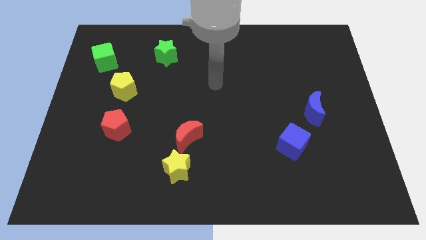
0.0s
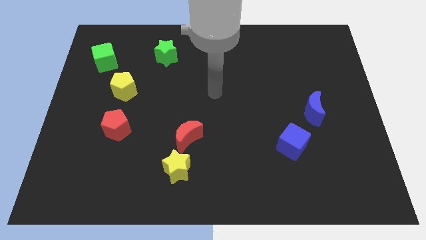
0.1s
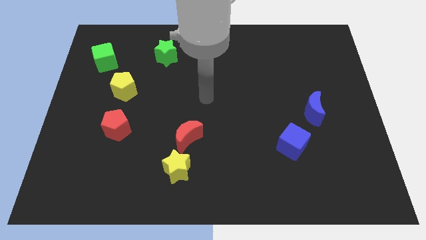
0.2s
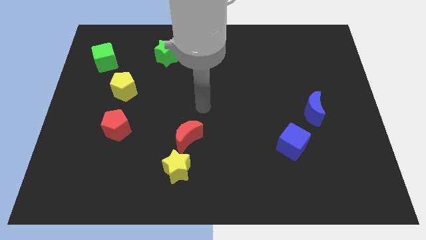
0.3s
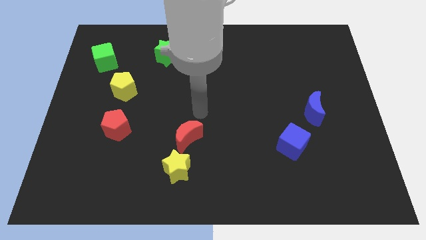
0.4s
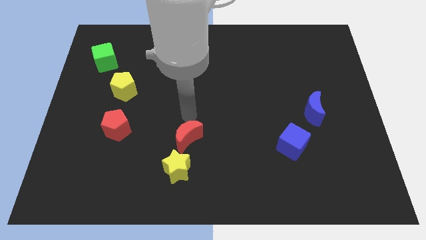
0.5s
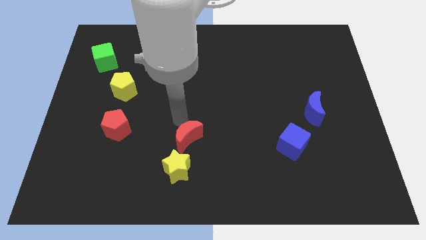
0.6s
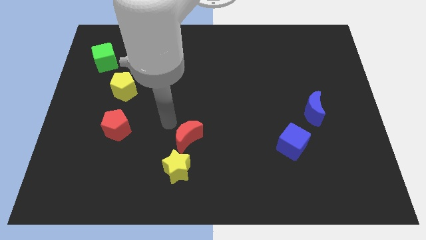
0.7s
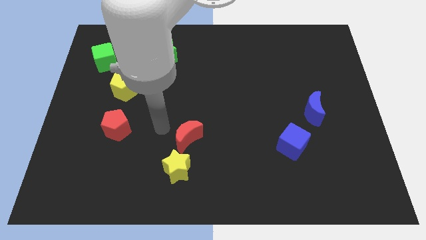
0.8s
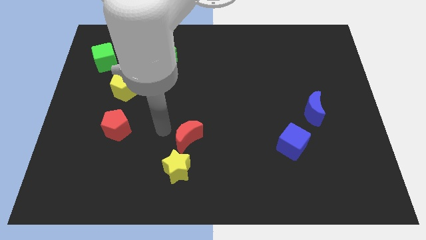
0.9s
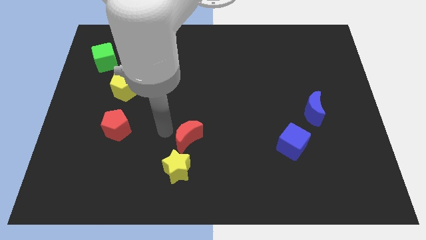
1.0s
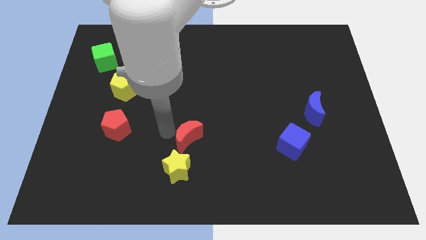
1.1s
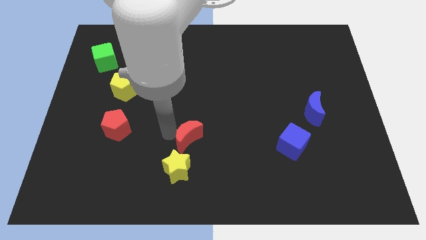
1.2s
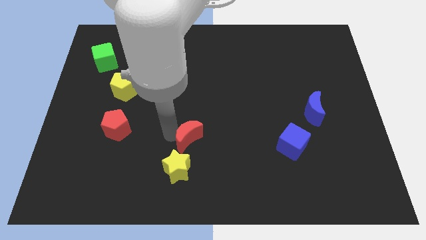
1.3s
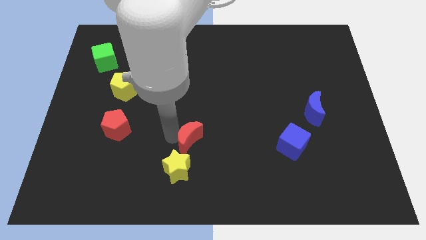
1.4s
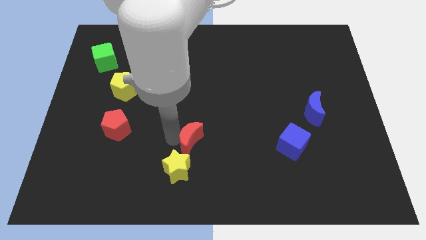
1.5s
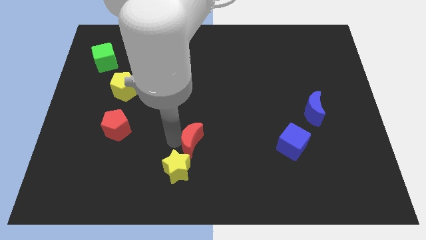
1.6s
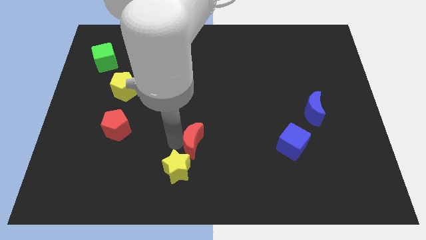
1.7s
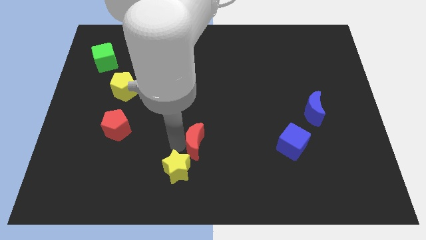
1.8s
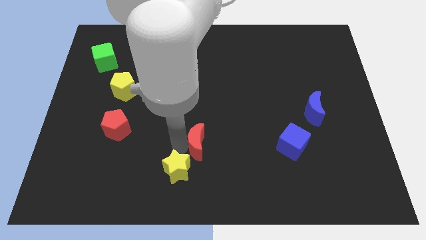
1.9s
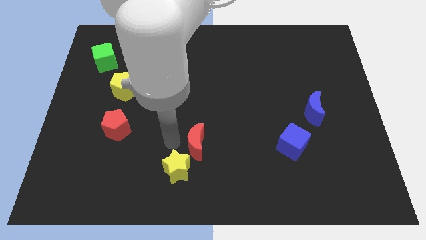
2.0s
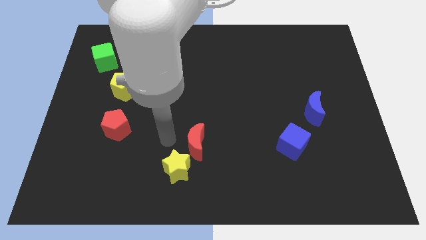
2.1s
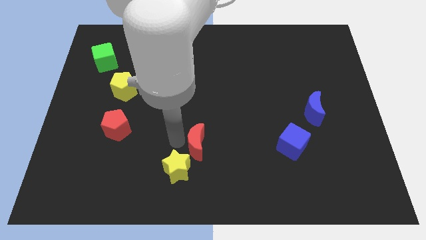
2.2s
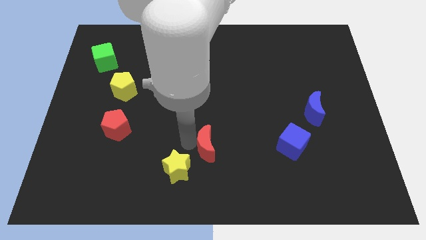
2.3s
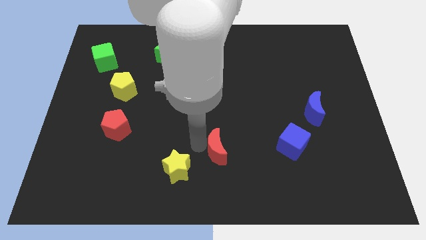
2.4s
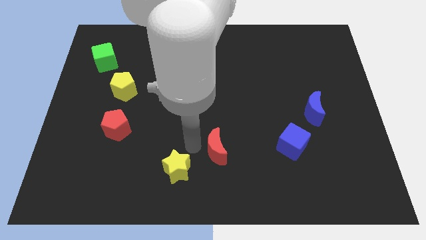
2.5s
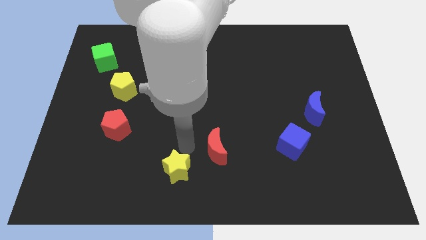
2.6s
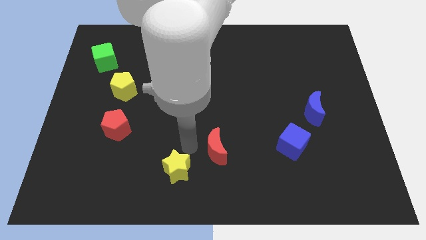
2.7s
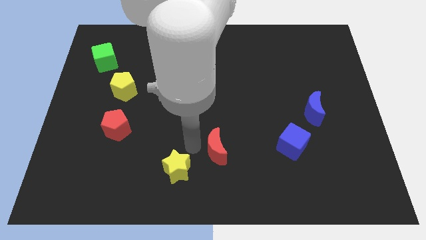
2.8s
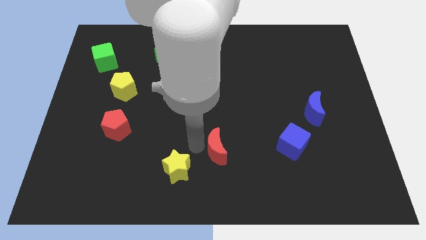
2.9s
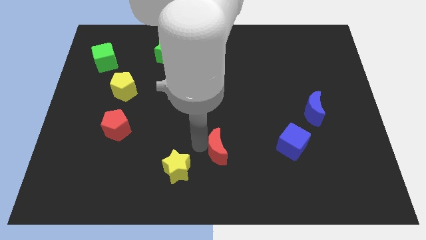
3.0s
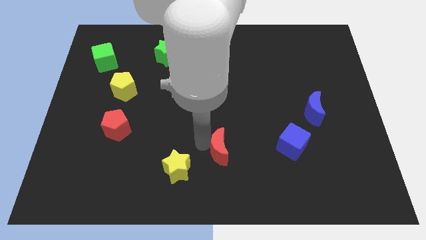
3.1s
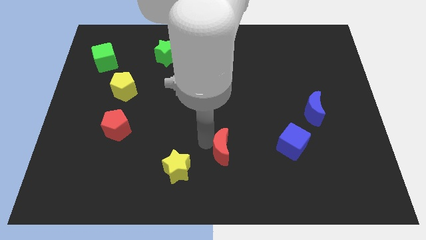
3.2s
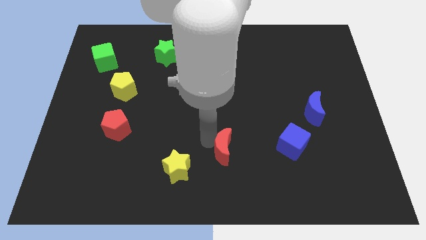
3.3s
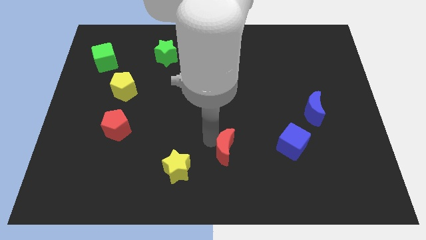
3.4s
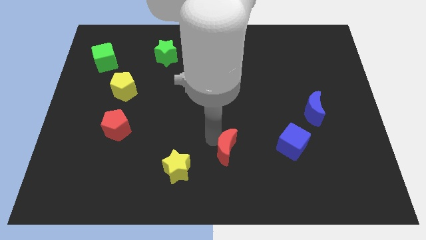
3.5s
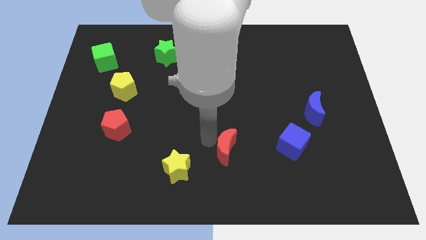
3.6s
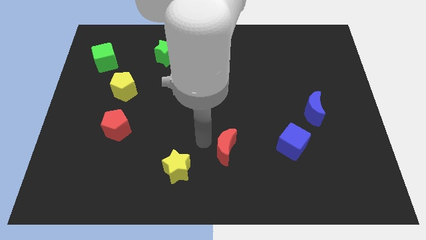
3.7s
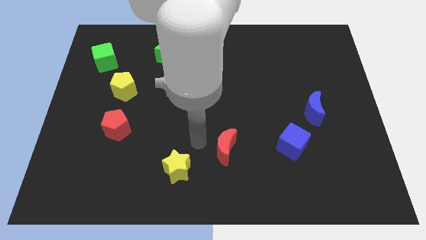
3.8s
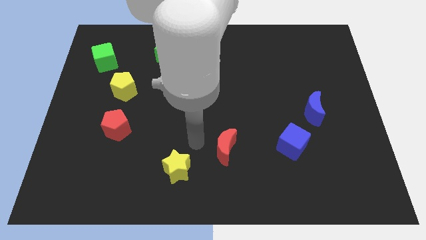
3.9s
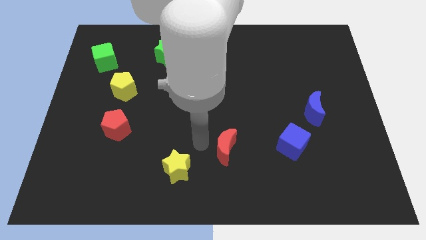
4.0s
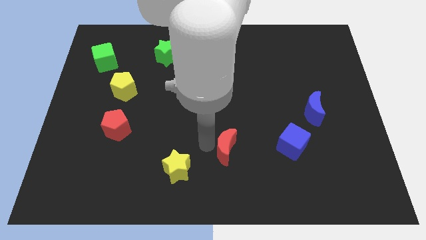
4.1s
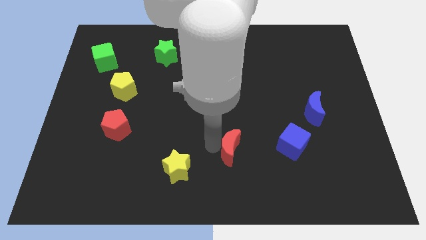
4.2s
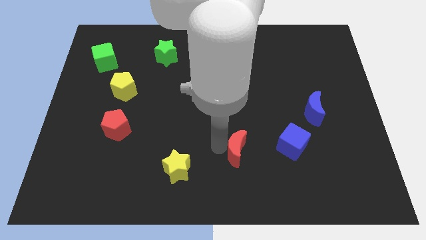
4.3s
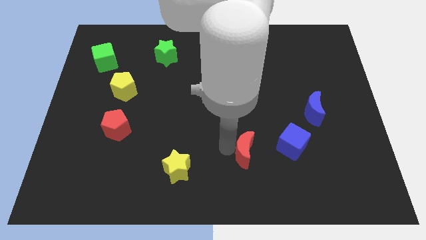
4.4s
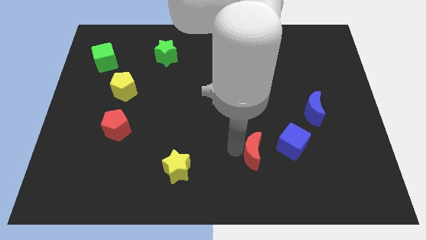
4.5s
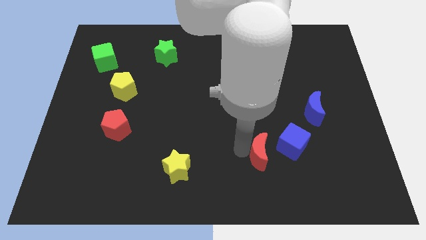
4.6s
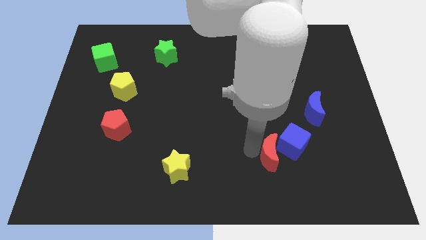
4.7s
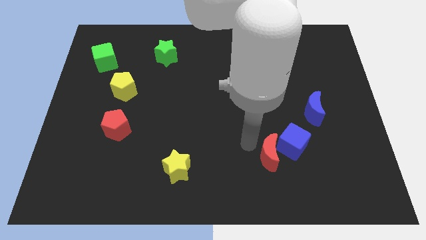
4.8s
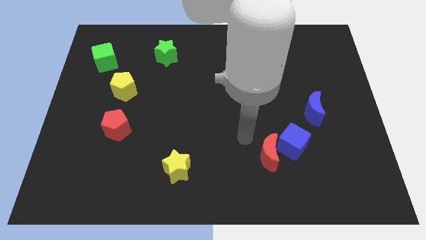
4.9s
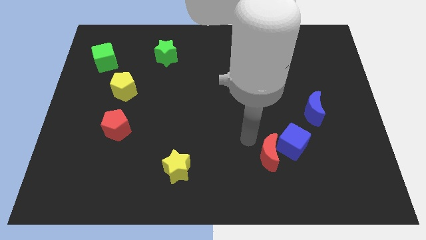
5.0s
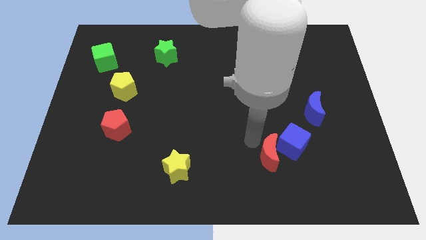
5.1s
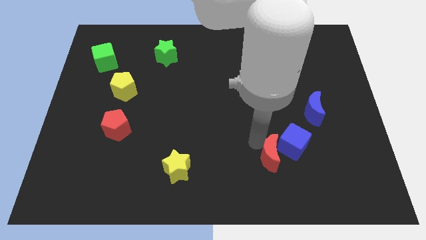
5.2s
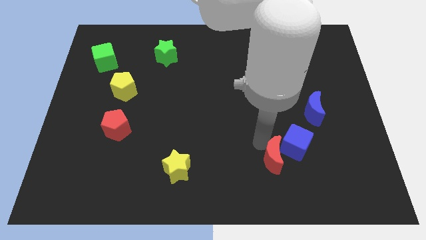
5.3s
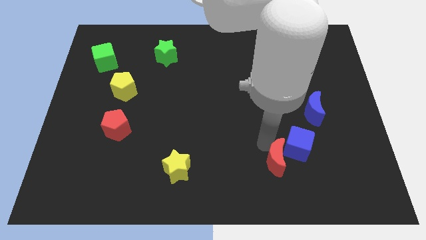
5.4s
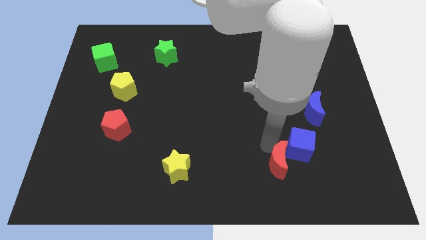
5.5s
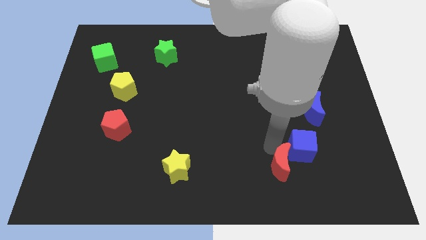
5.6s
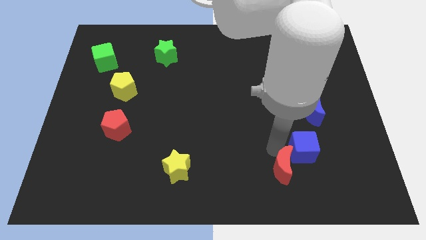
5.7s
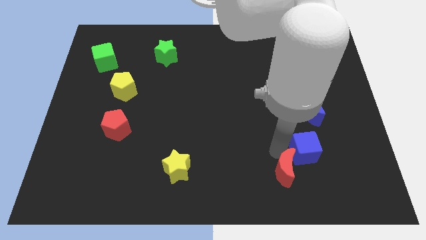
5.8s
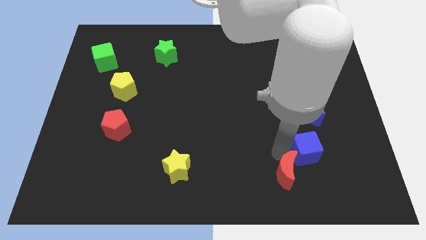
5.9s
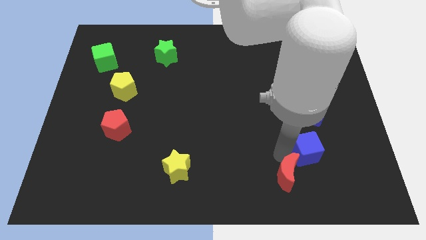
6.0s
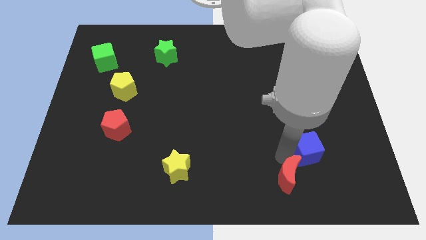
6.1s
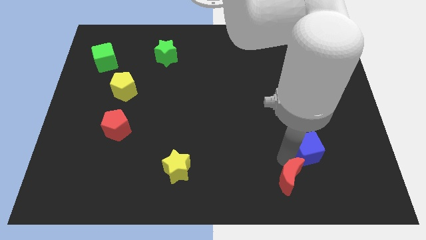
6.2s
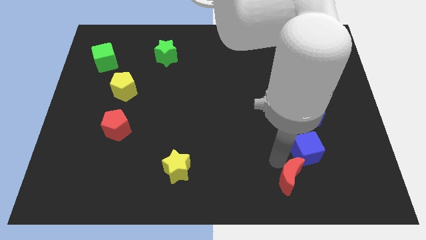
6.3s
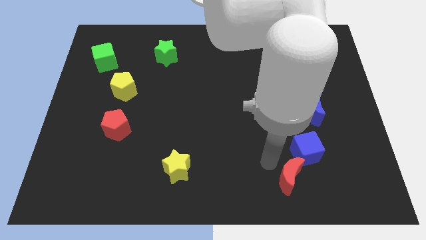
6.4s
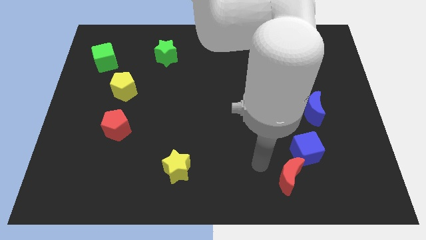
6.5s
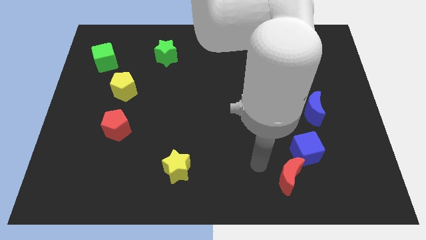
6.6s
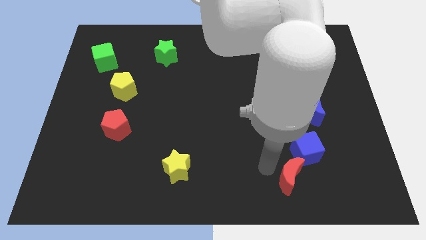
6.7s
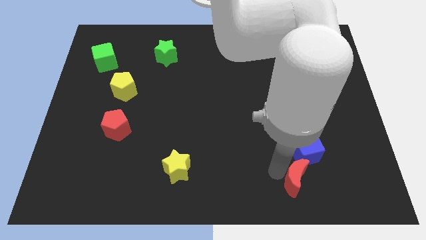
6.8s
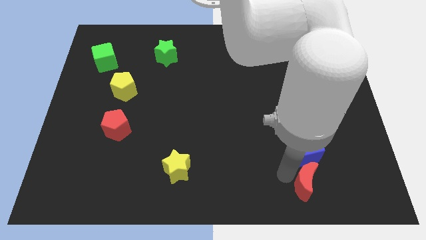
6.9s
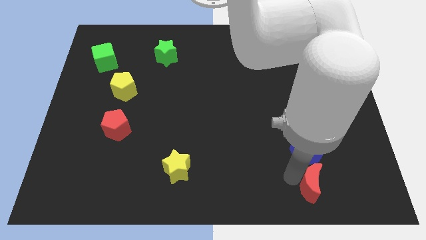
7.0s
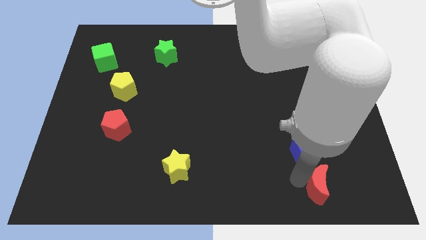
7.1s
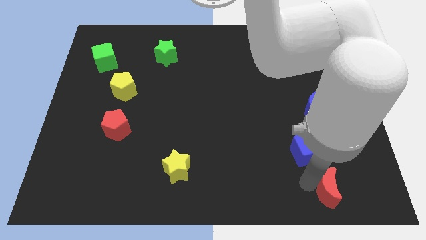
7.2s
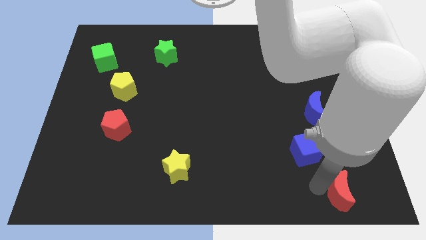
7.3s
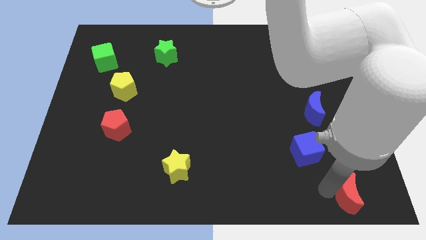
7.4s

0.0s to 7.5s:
slide the red moon to the bottom right of the board
